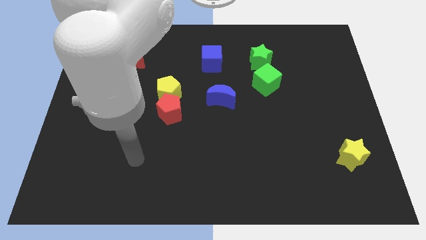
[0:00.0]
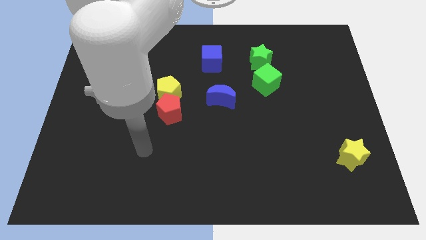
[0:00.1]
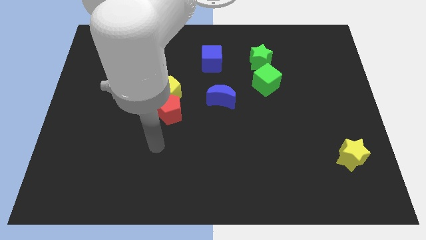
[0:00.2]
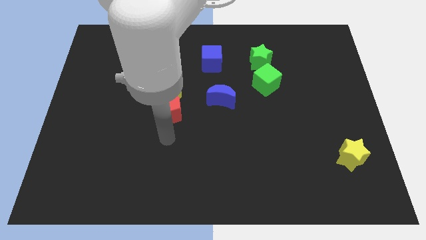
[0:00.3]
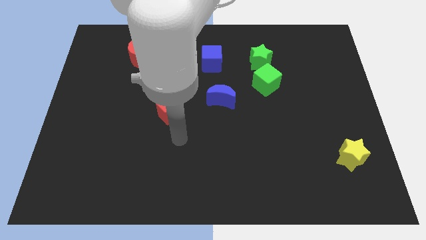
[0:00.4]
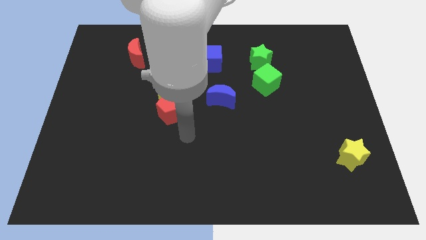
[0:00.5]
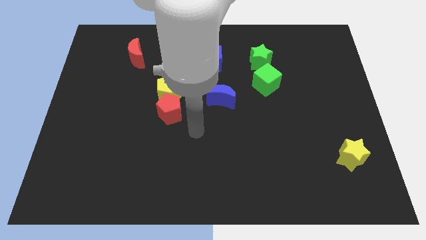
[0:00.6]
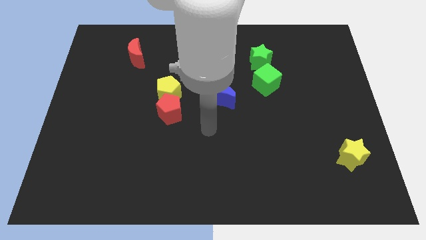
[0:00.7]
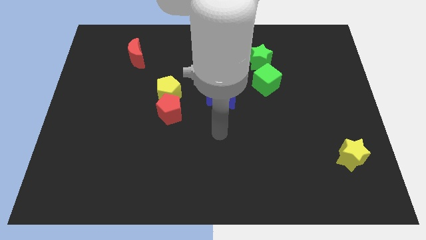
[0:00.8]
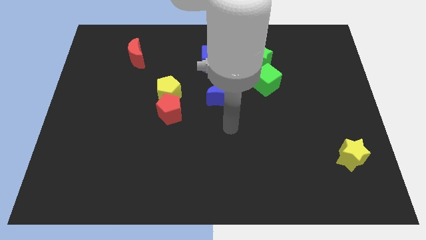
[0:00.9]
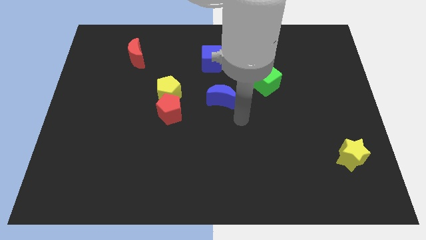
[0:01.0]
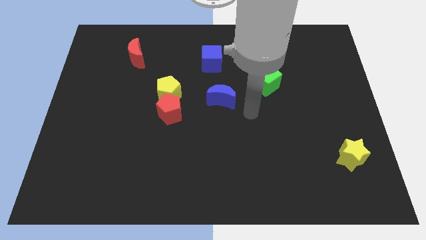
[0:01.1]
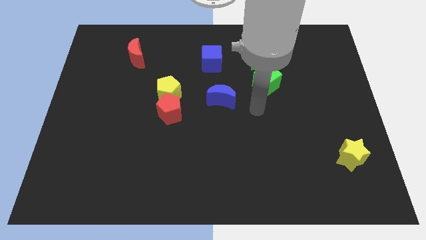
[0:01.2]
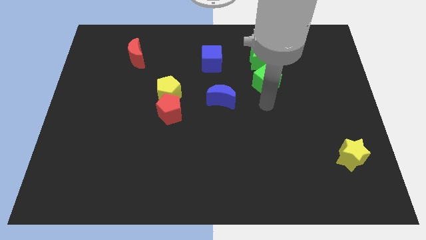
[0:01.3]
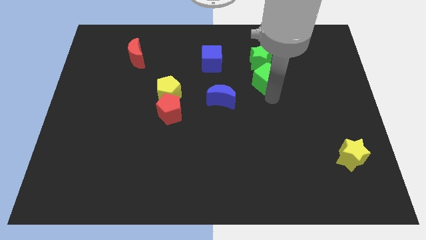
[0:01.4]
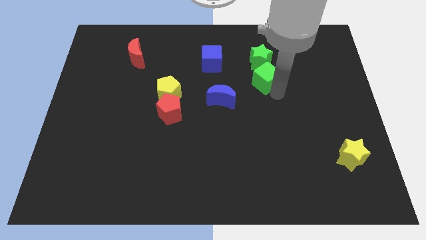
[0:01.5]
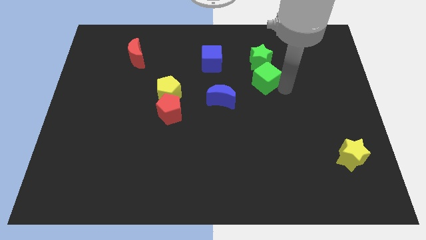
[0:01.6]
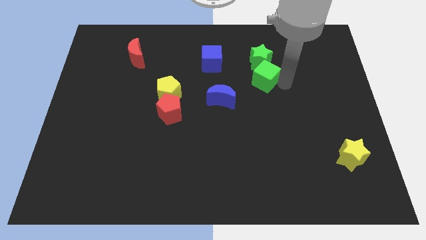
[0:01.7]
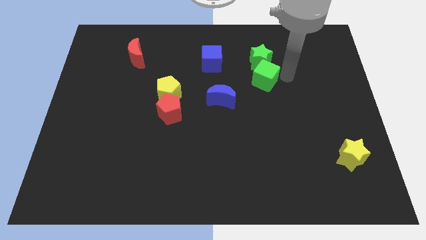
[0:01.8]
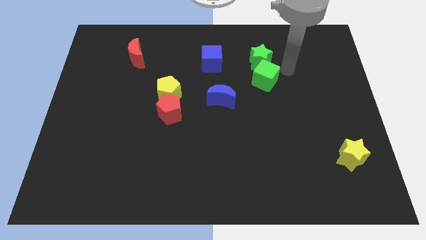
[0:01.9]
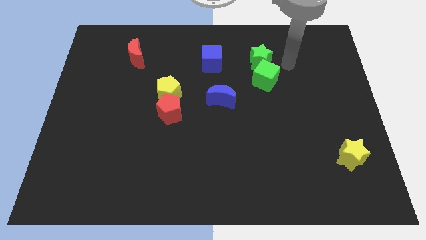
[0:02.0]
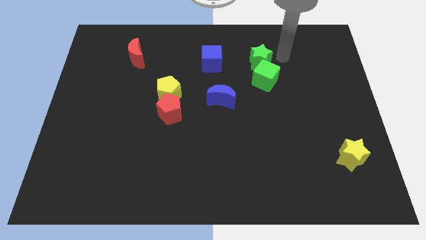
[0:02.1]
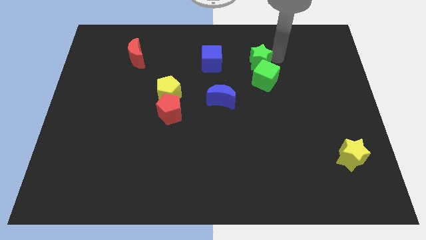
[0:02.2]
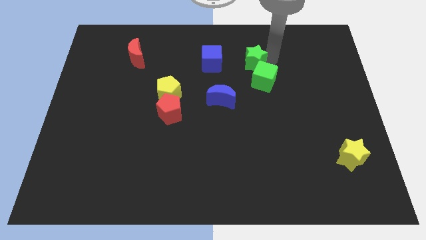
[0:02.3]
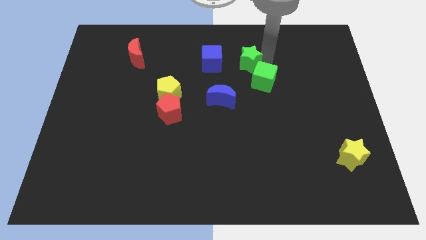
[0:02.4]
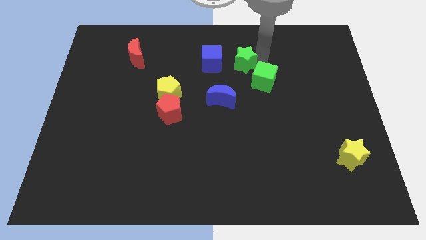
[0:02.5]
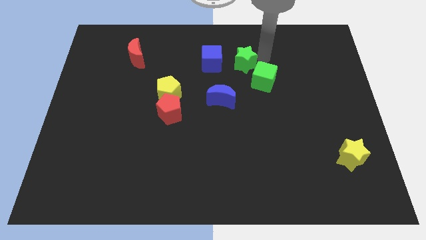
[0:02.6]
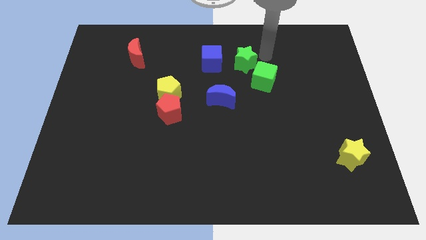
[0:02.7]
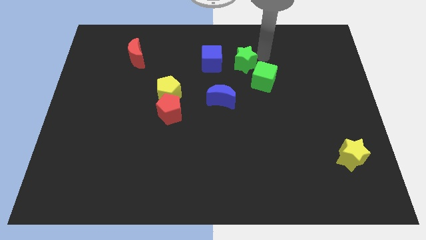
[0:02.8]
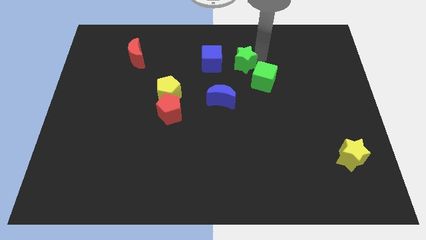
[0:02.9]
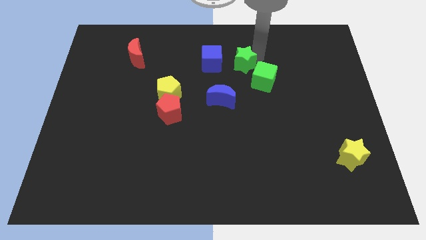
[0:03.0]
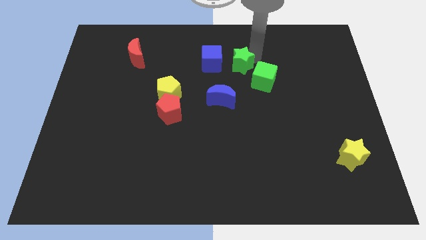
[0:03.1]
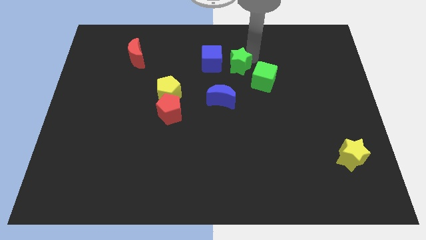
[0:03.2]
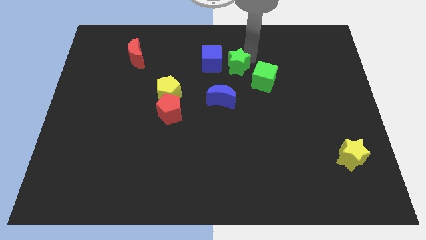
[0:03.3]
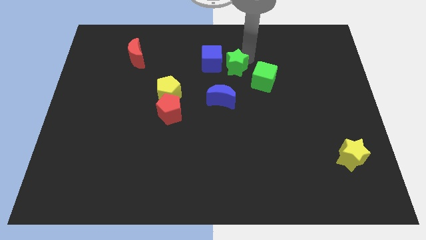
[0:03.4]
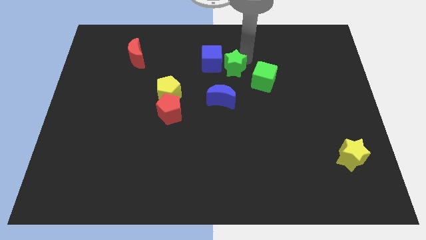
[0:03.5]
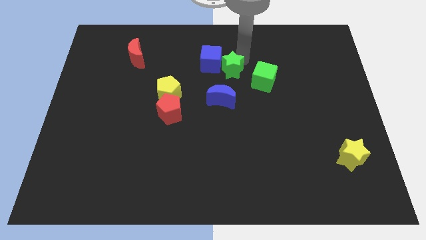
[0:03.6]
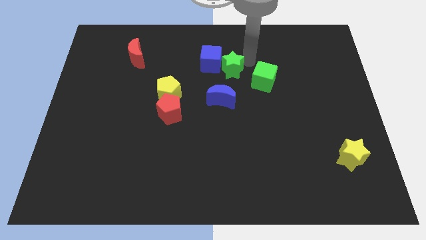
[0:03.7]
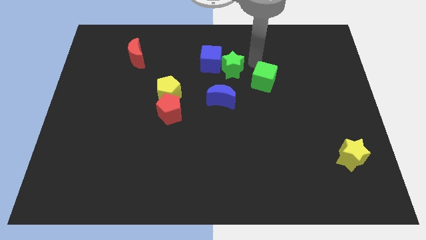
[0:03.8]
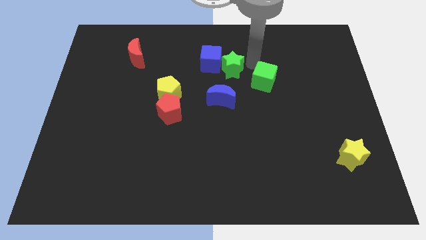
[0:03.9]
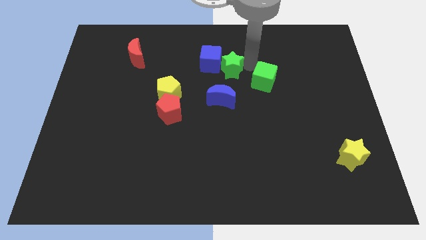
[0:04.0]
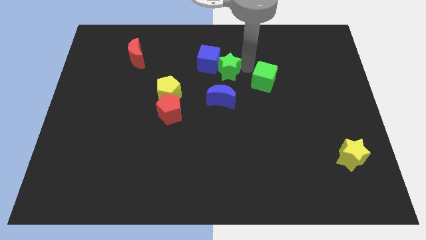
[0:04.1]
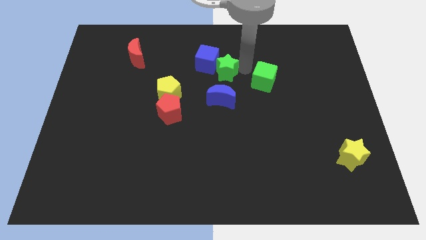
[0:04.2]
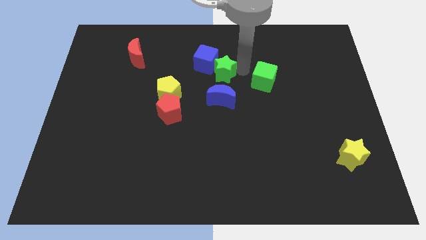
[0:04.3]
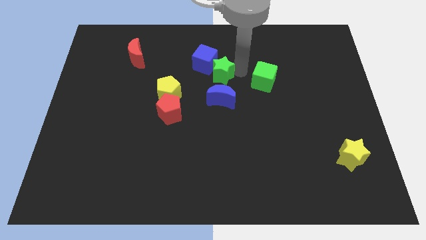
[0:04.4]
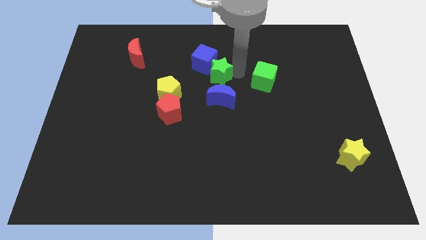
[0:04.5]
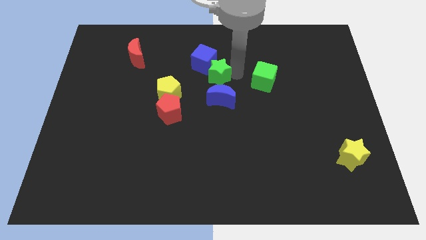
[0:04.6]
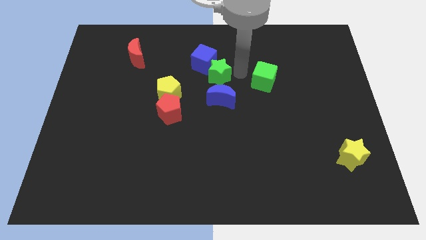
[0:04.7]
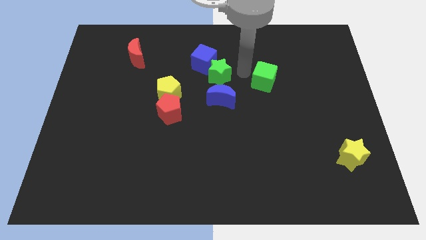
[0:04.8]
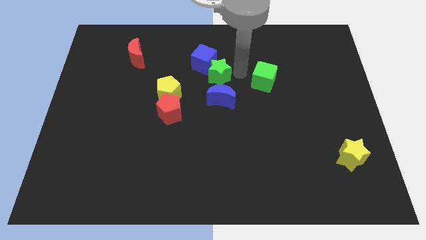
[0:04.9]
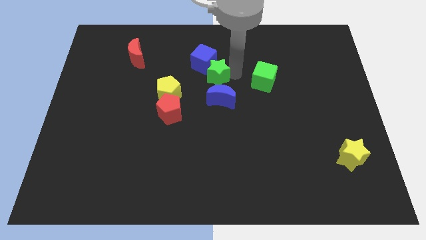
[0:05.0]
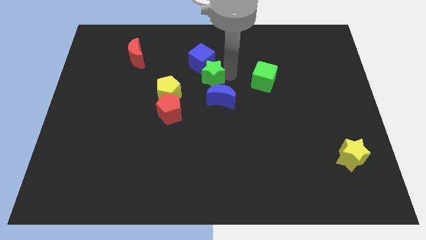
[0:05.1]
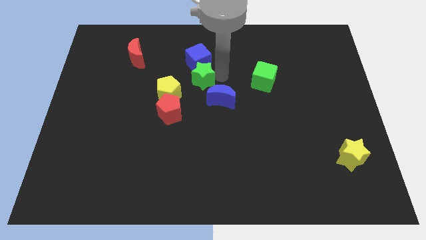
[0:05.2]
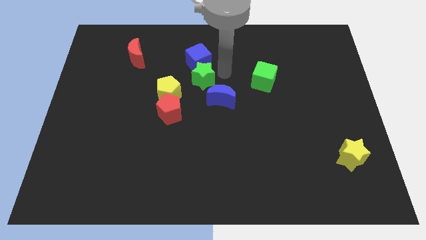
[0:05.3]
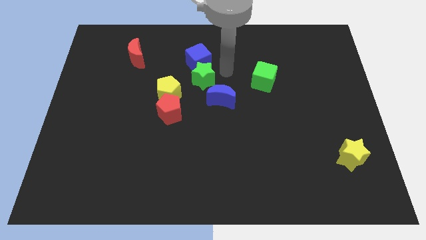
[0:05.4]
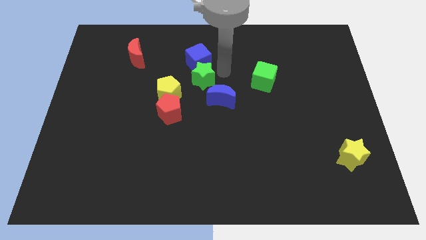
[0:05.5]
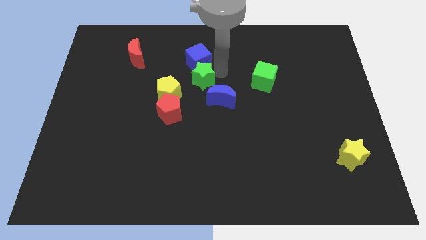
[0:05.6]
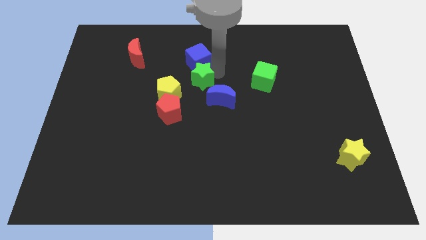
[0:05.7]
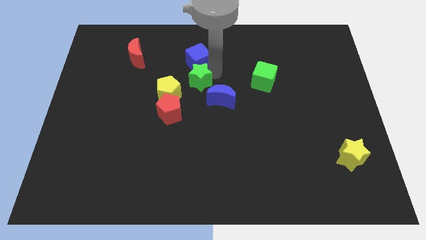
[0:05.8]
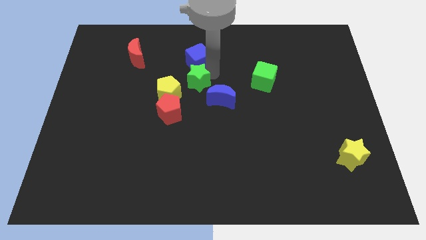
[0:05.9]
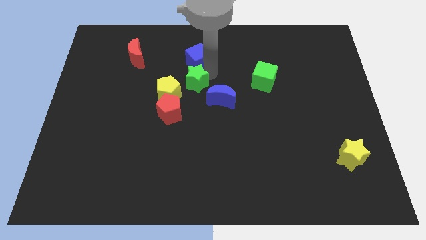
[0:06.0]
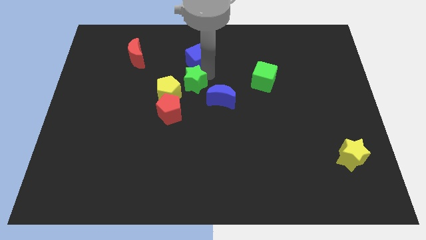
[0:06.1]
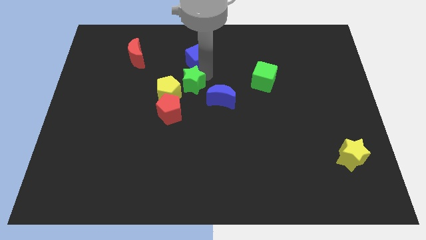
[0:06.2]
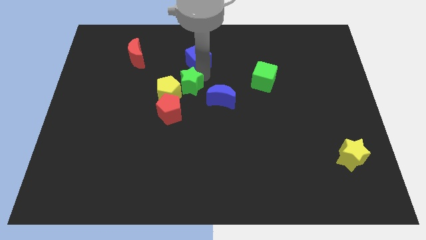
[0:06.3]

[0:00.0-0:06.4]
put the green star towards the yellow pentagon

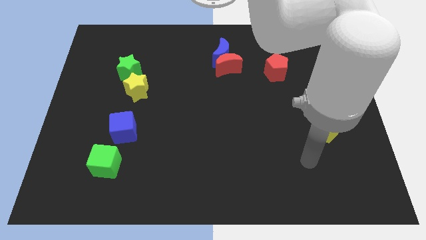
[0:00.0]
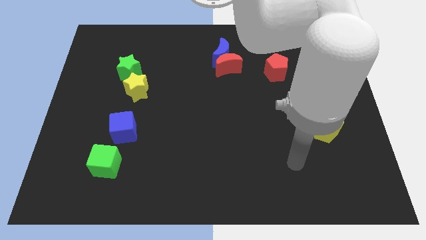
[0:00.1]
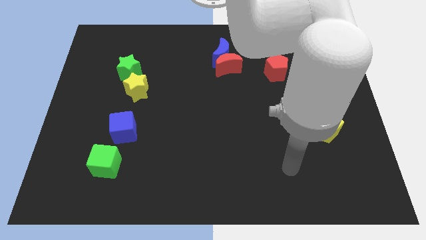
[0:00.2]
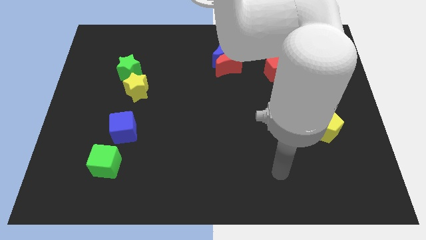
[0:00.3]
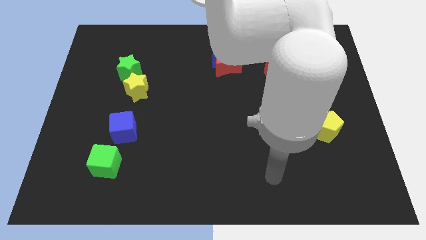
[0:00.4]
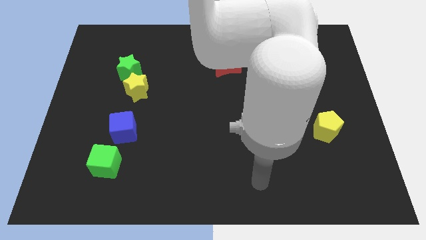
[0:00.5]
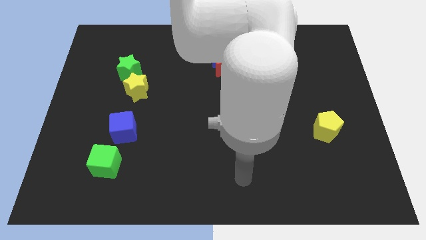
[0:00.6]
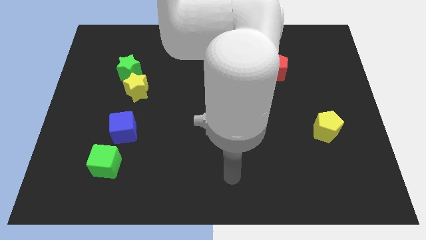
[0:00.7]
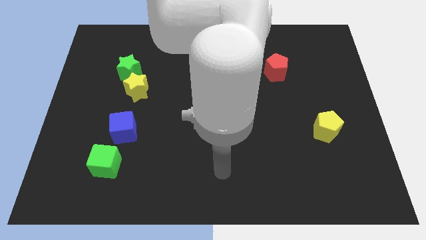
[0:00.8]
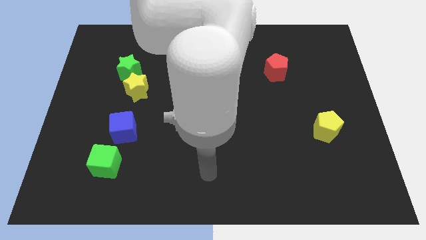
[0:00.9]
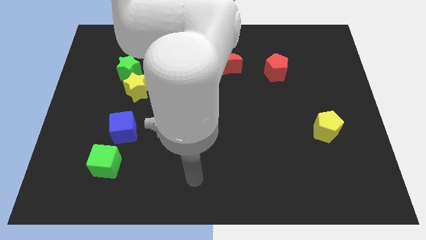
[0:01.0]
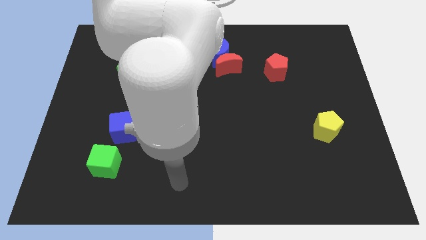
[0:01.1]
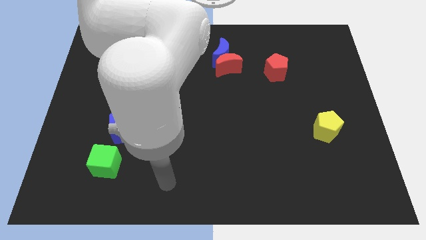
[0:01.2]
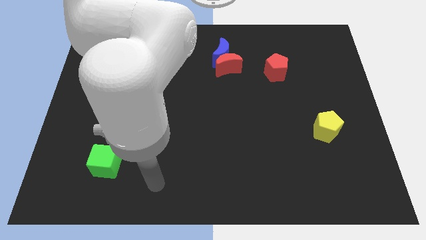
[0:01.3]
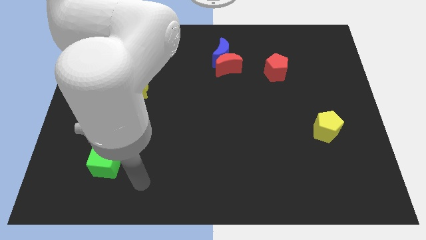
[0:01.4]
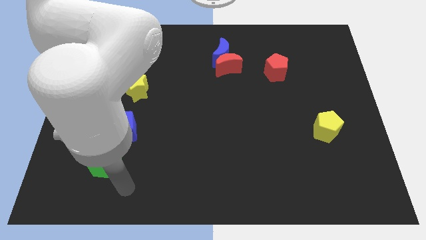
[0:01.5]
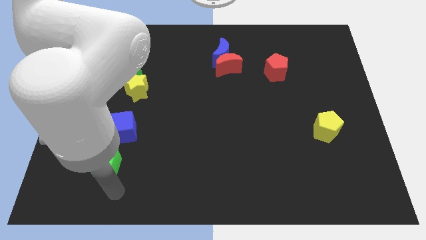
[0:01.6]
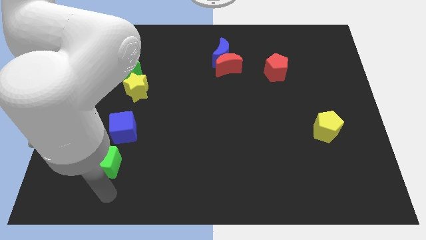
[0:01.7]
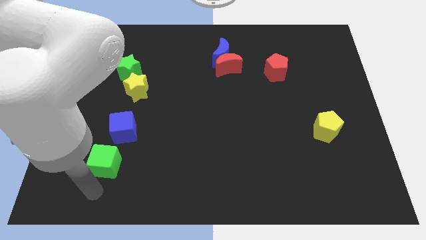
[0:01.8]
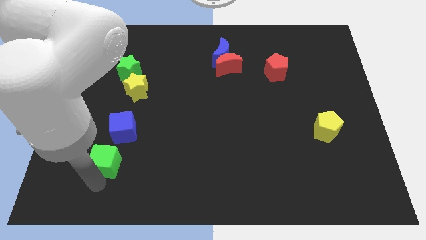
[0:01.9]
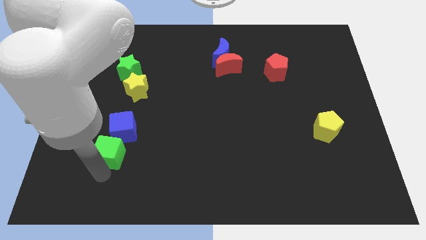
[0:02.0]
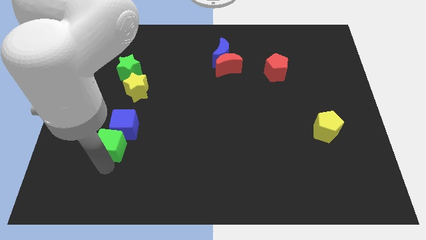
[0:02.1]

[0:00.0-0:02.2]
slide the green cube next to the blue cube
